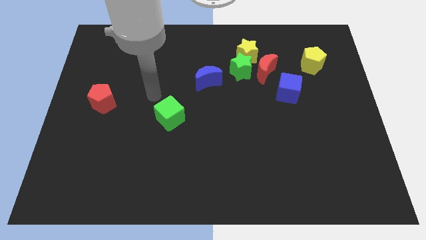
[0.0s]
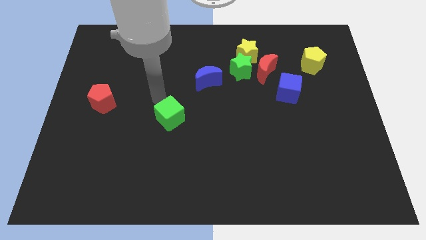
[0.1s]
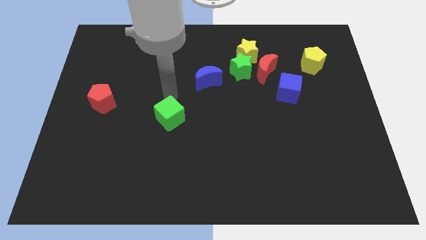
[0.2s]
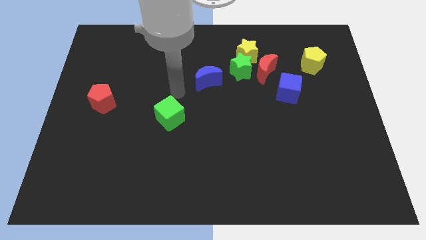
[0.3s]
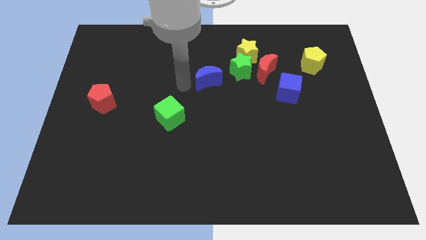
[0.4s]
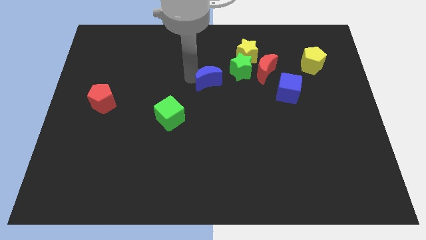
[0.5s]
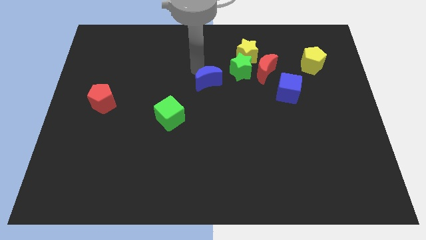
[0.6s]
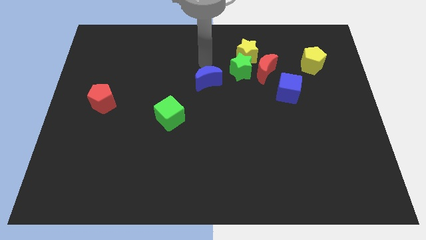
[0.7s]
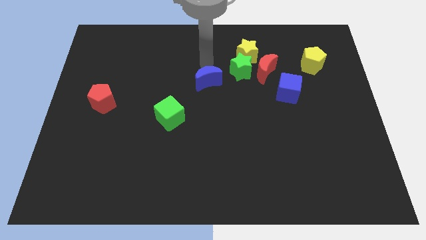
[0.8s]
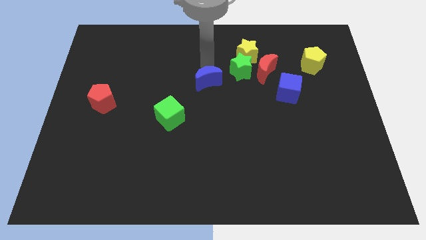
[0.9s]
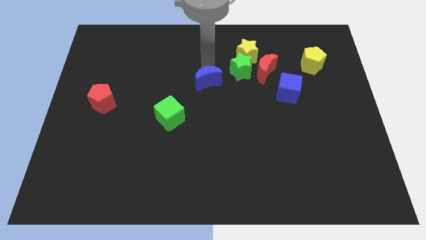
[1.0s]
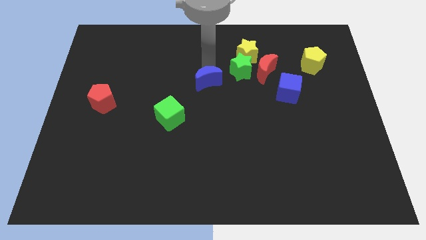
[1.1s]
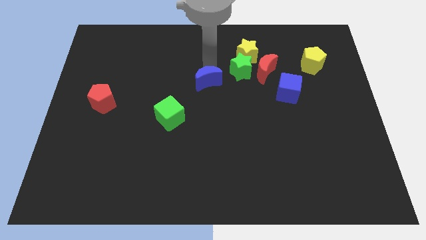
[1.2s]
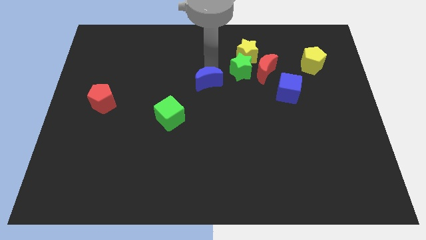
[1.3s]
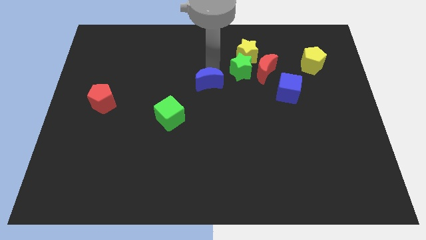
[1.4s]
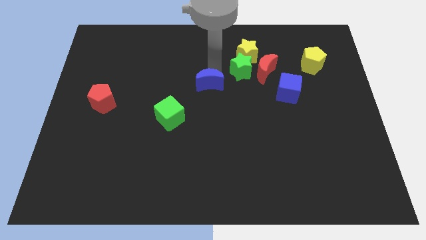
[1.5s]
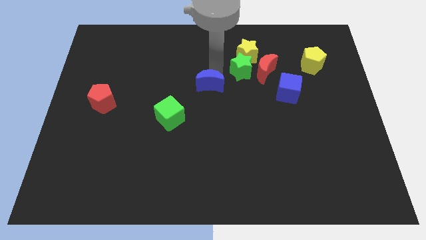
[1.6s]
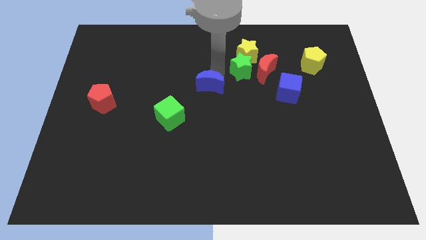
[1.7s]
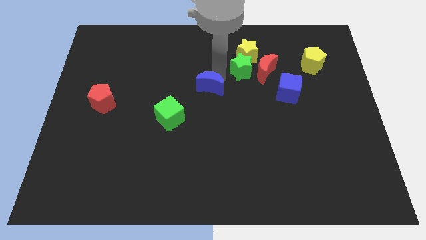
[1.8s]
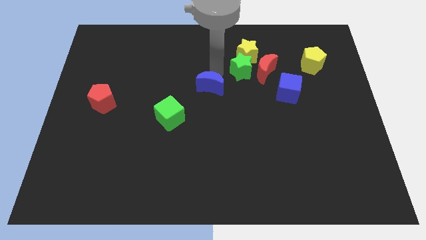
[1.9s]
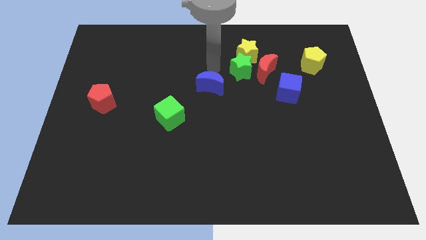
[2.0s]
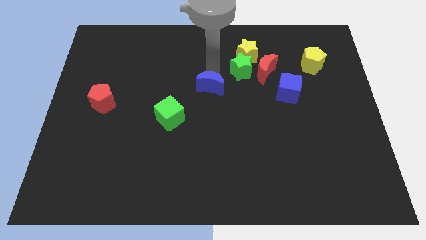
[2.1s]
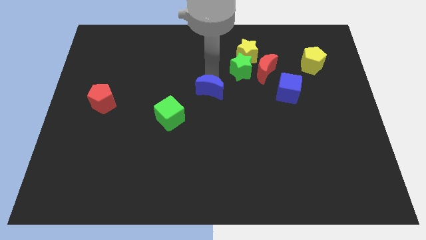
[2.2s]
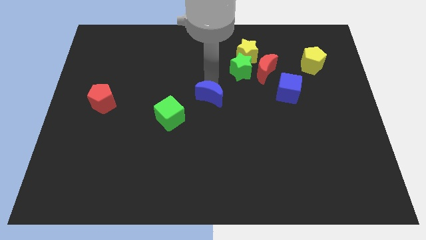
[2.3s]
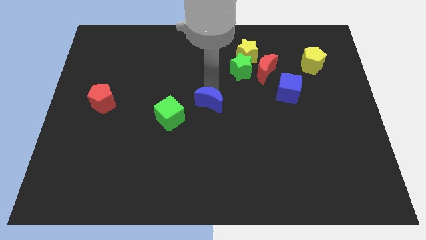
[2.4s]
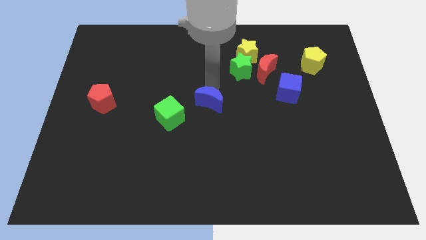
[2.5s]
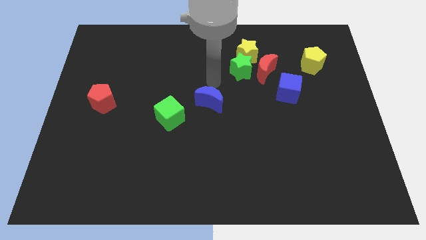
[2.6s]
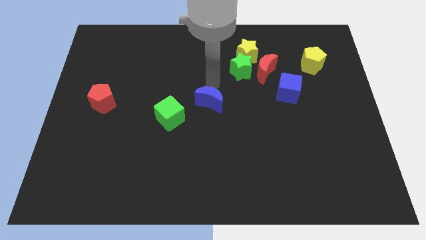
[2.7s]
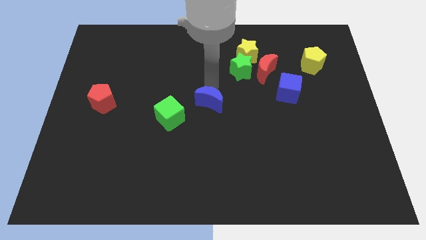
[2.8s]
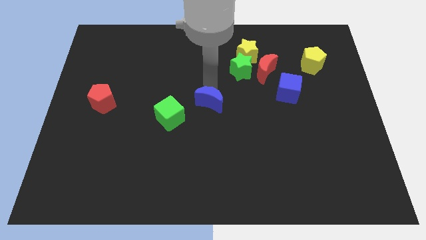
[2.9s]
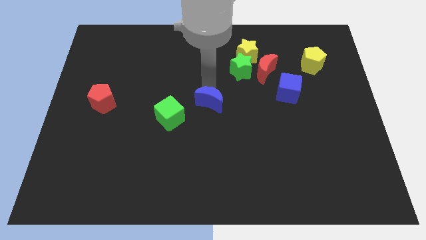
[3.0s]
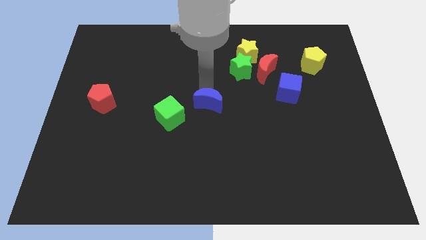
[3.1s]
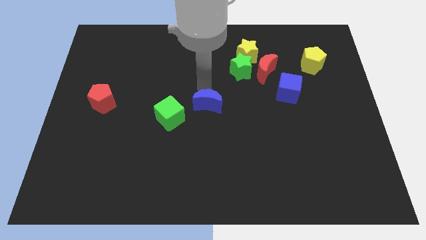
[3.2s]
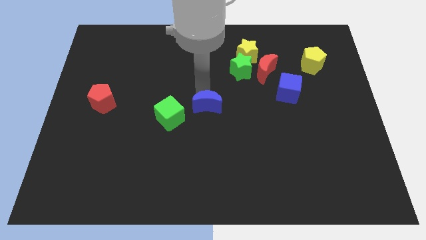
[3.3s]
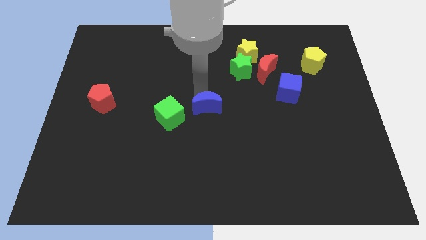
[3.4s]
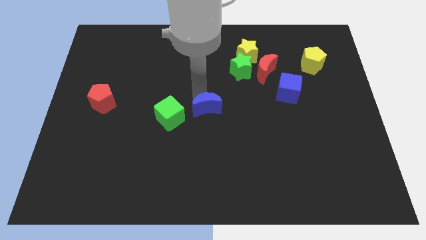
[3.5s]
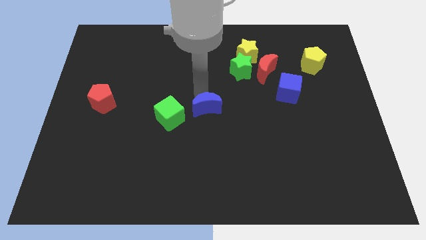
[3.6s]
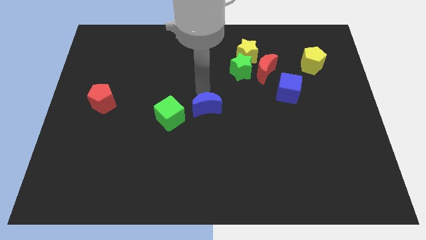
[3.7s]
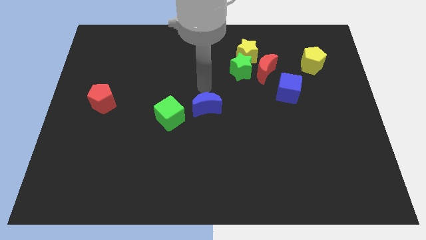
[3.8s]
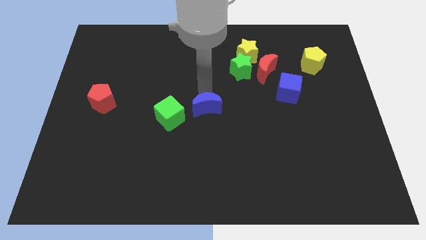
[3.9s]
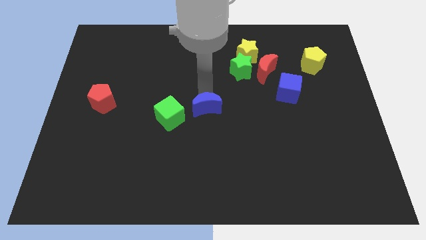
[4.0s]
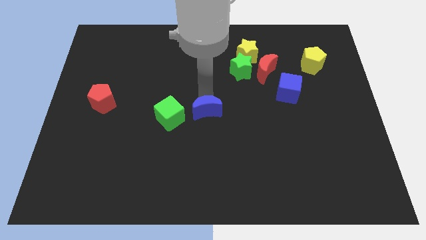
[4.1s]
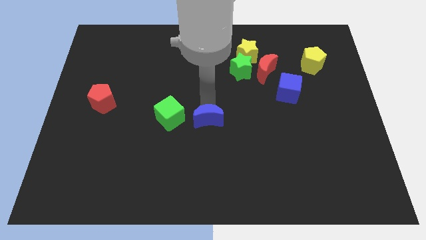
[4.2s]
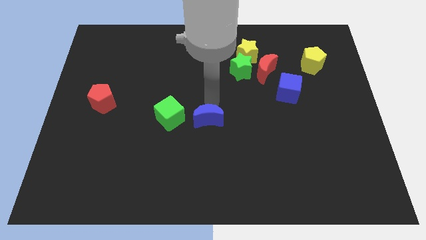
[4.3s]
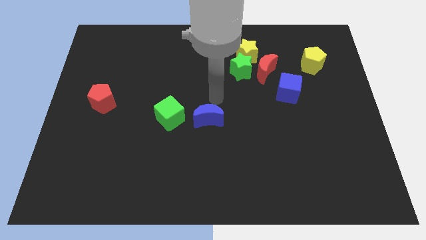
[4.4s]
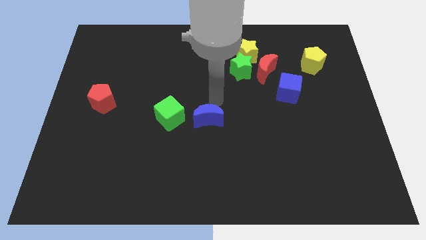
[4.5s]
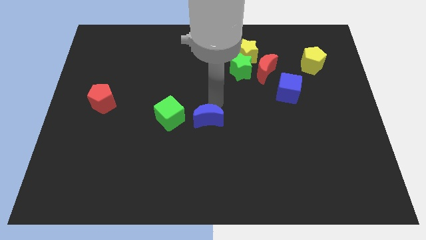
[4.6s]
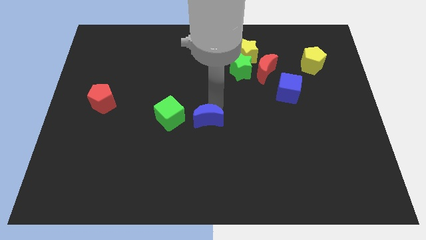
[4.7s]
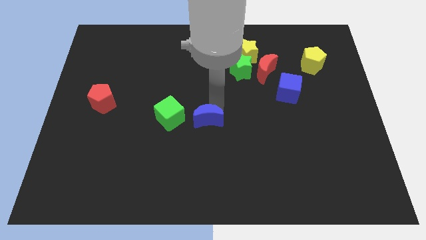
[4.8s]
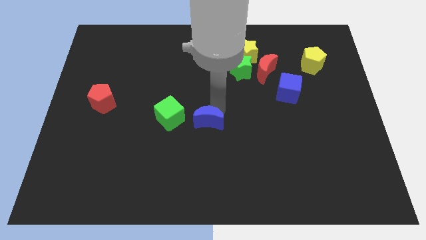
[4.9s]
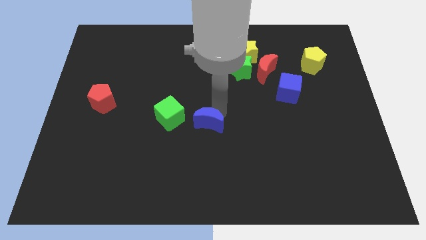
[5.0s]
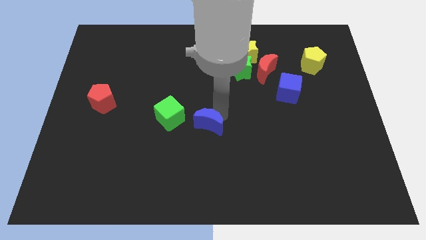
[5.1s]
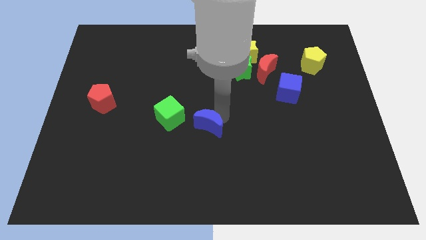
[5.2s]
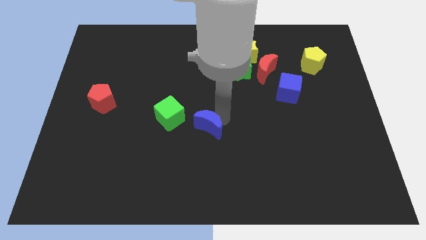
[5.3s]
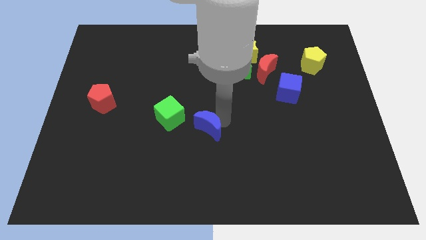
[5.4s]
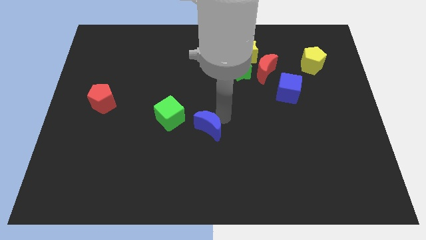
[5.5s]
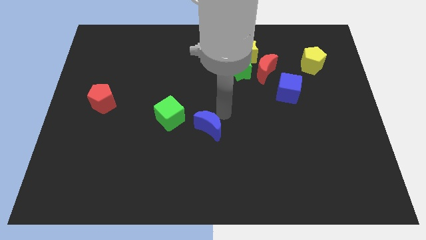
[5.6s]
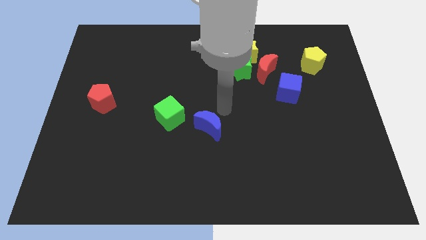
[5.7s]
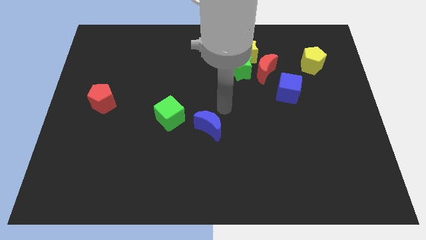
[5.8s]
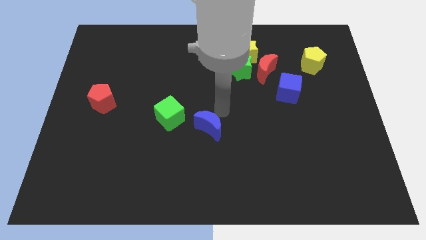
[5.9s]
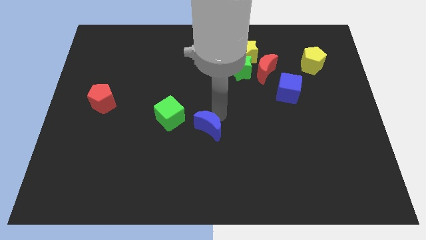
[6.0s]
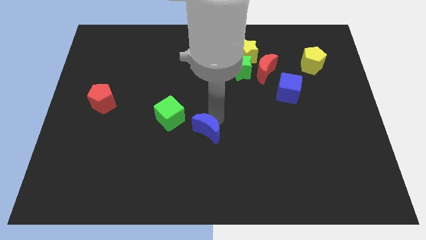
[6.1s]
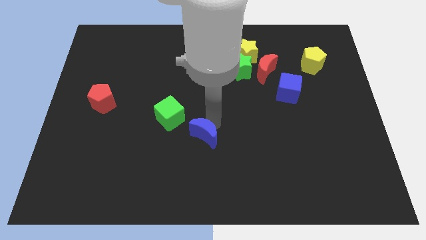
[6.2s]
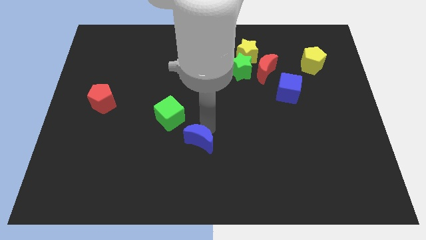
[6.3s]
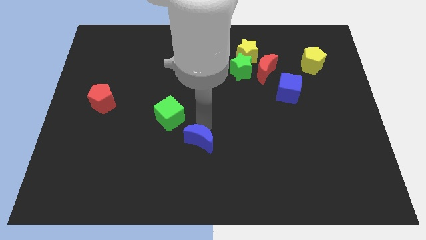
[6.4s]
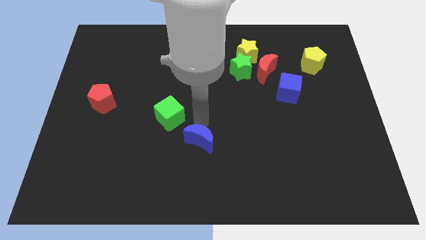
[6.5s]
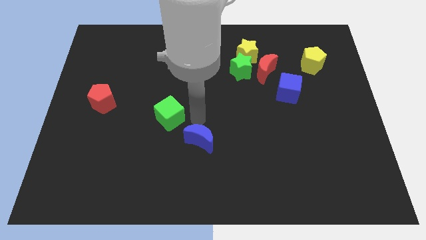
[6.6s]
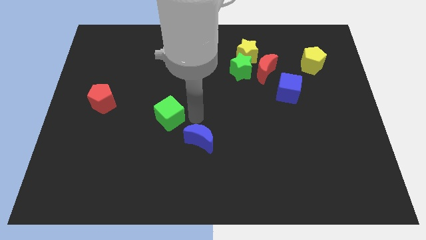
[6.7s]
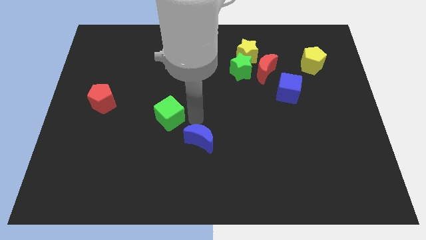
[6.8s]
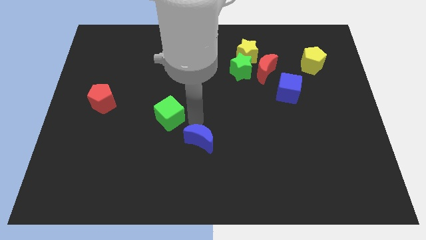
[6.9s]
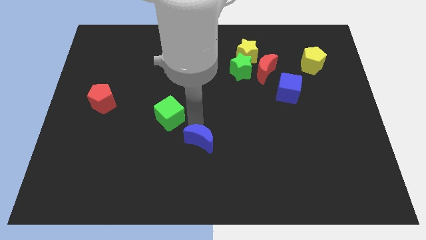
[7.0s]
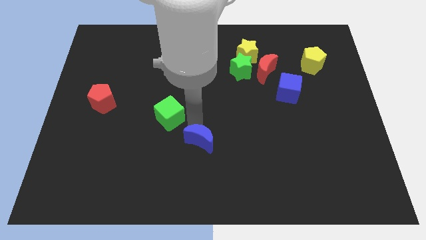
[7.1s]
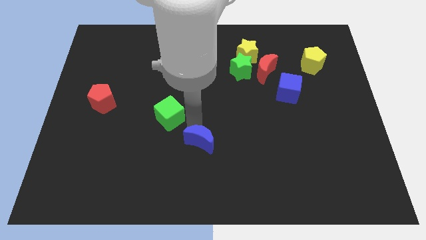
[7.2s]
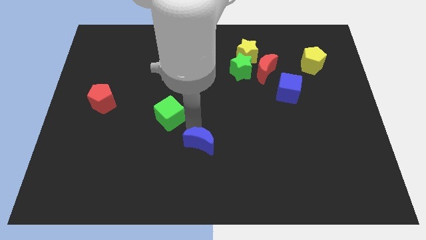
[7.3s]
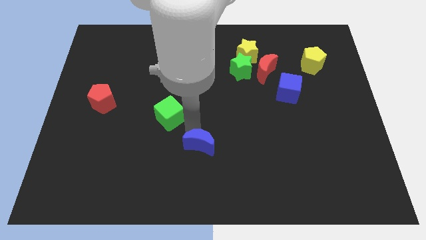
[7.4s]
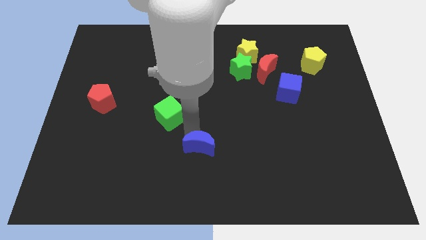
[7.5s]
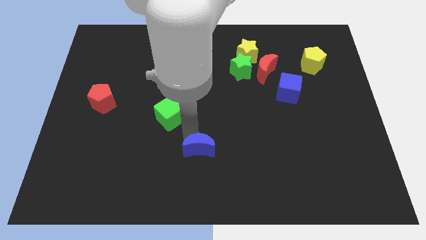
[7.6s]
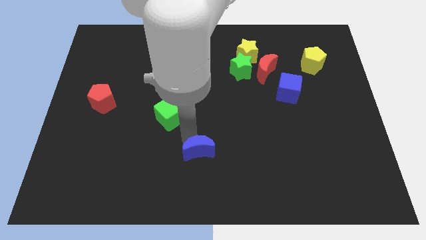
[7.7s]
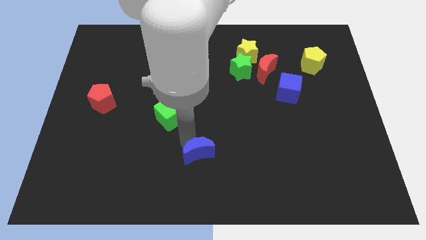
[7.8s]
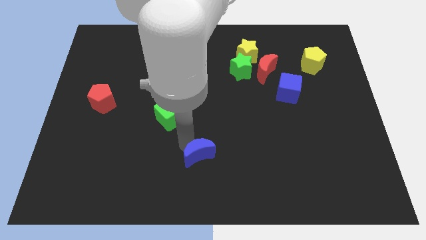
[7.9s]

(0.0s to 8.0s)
push the blue moon to the bottom
